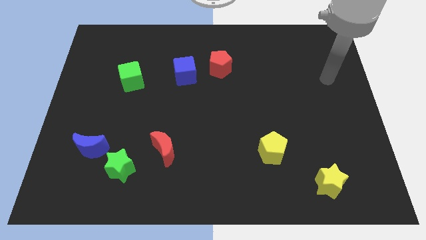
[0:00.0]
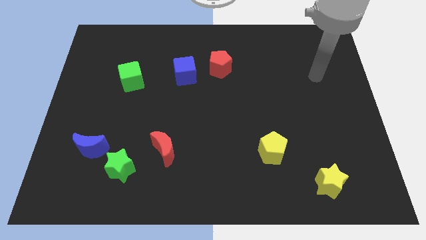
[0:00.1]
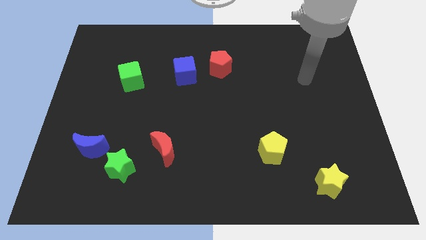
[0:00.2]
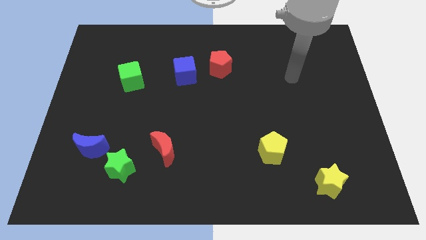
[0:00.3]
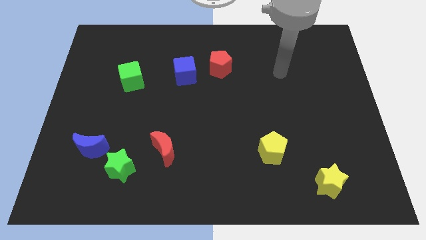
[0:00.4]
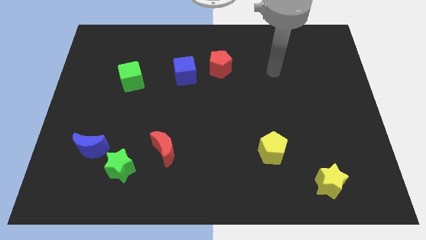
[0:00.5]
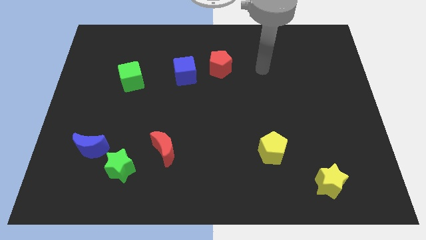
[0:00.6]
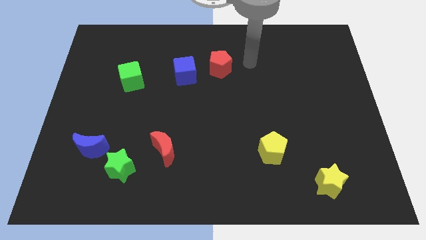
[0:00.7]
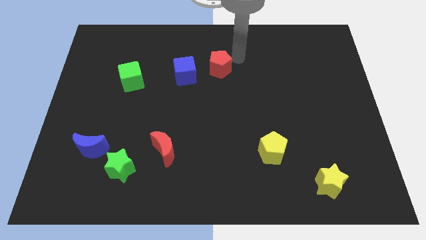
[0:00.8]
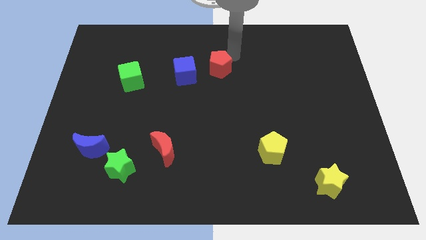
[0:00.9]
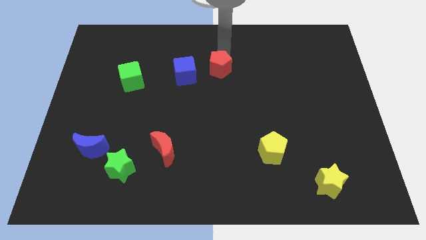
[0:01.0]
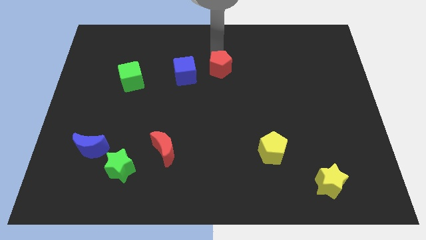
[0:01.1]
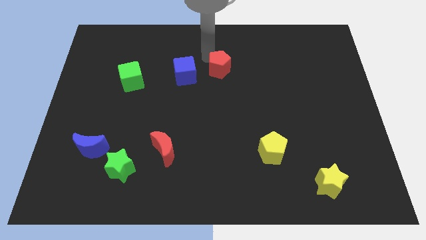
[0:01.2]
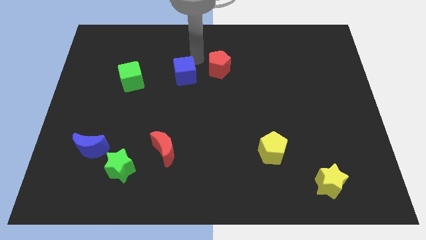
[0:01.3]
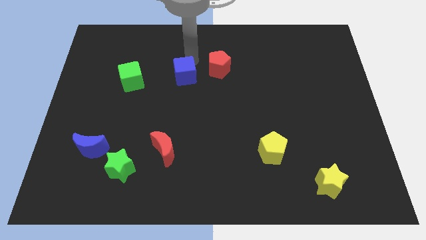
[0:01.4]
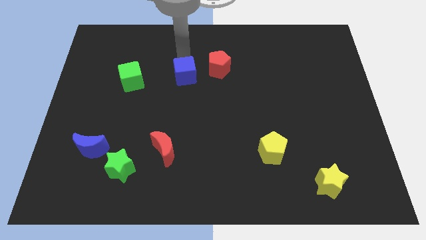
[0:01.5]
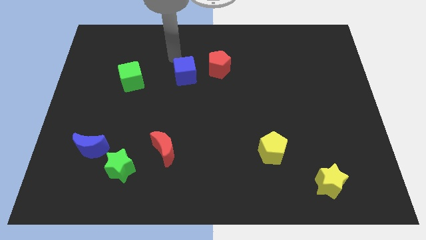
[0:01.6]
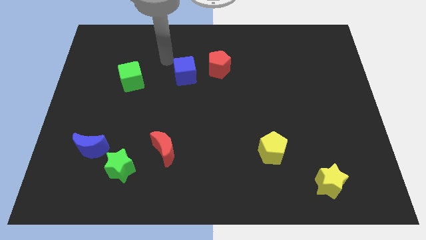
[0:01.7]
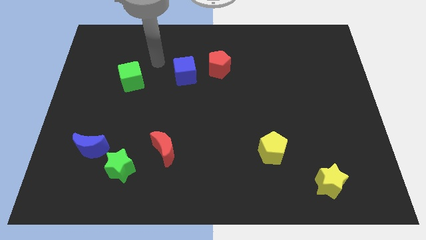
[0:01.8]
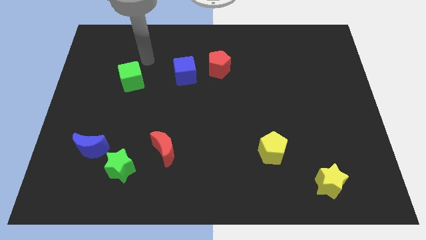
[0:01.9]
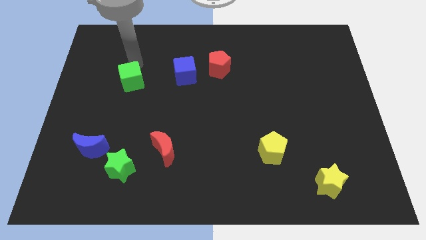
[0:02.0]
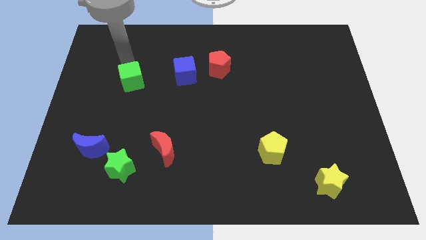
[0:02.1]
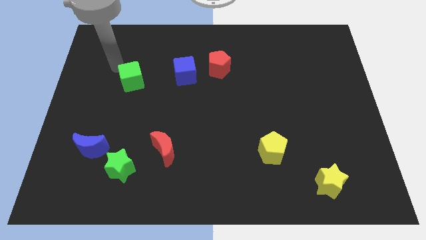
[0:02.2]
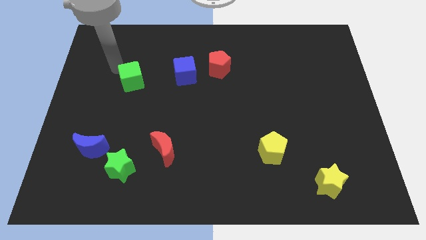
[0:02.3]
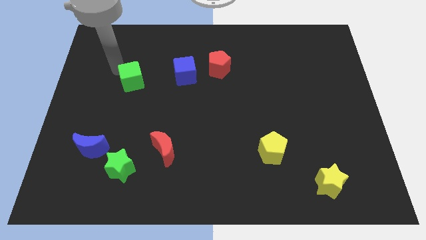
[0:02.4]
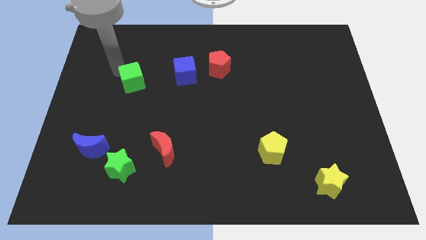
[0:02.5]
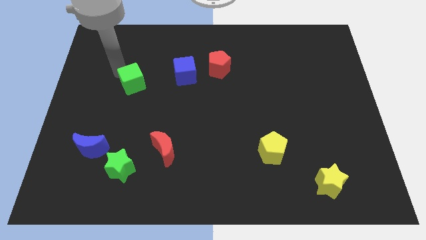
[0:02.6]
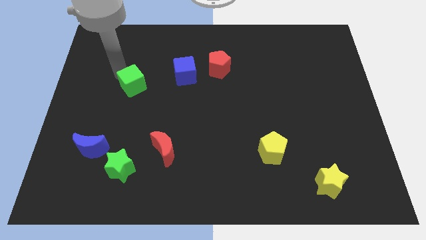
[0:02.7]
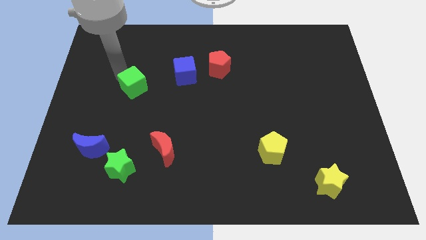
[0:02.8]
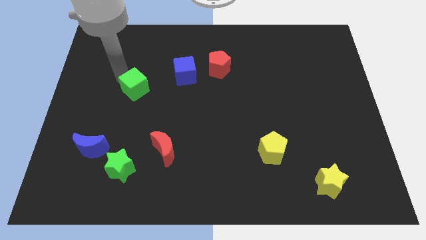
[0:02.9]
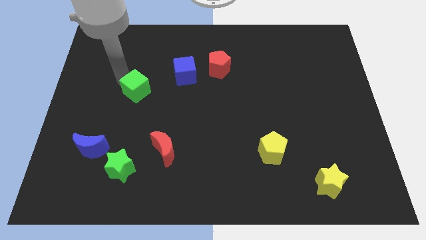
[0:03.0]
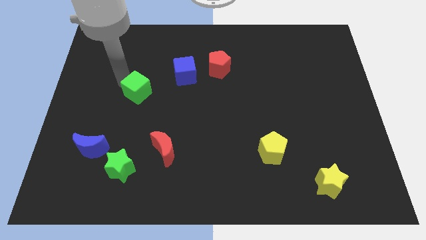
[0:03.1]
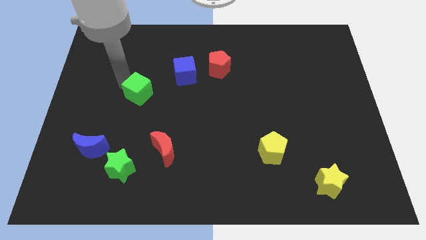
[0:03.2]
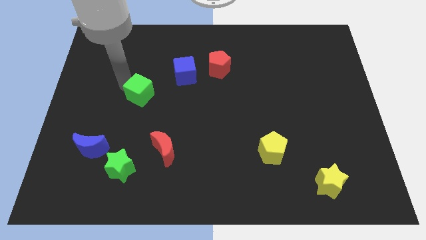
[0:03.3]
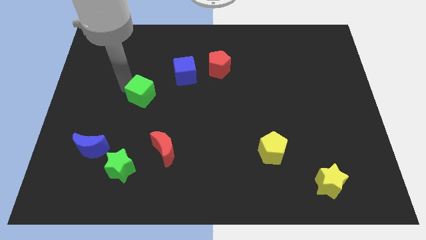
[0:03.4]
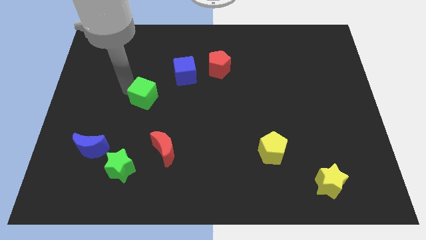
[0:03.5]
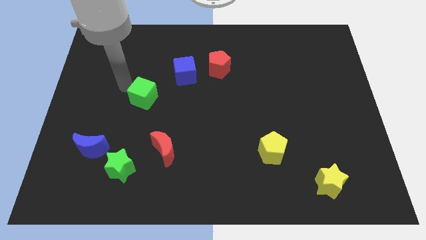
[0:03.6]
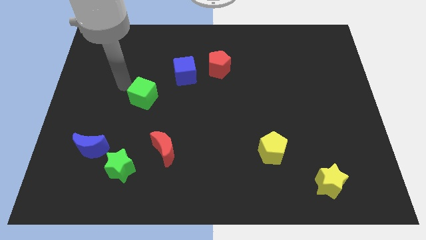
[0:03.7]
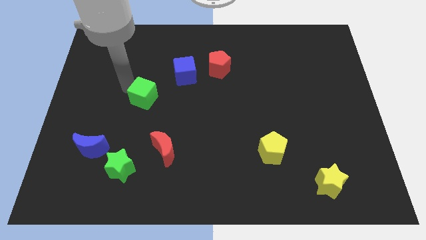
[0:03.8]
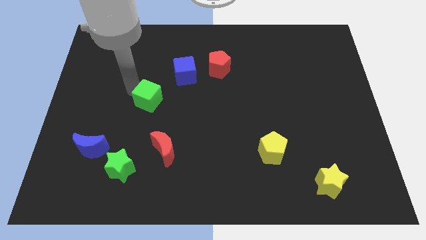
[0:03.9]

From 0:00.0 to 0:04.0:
push the green cube a bit downwards and to the right diagonally

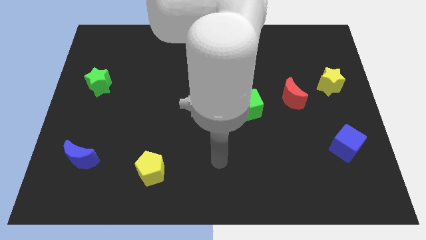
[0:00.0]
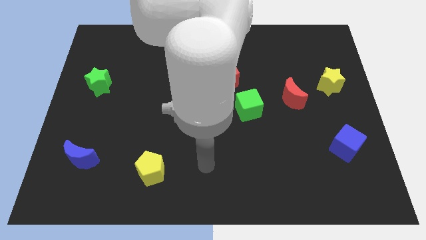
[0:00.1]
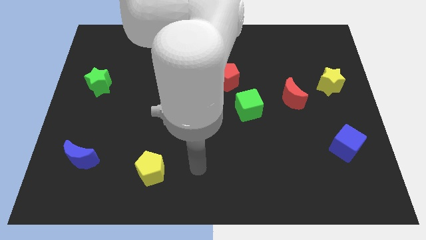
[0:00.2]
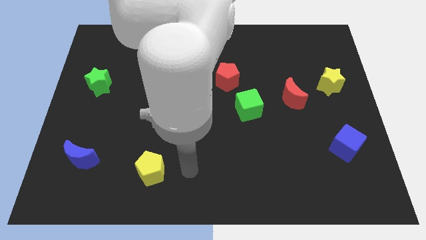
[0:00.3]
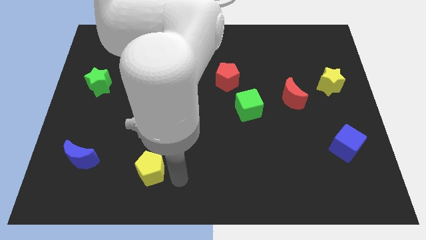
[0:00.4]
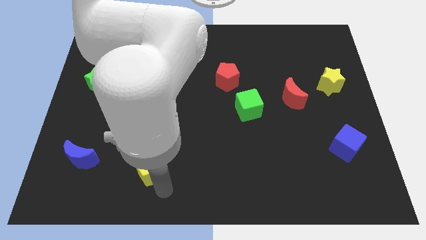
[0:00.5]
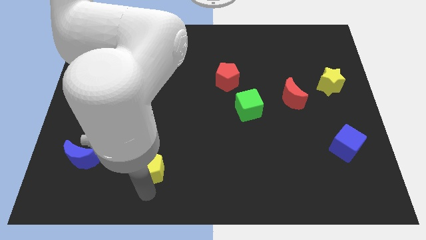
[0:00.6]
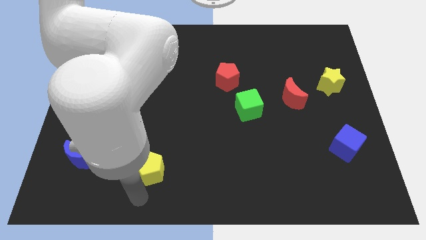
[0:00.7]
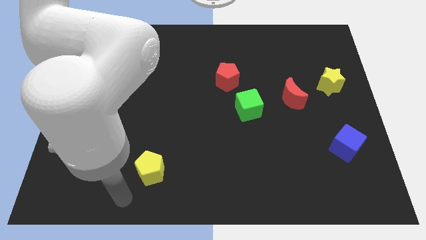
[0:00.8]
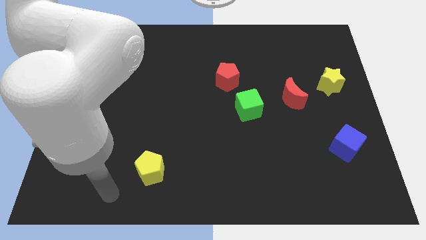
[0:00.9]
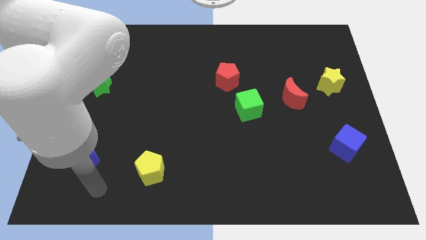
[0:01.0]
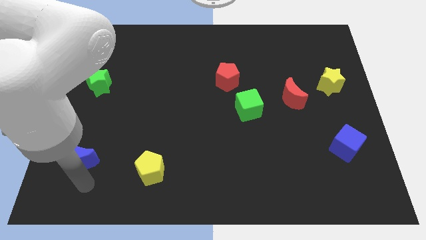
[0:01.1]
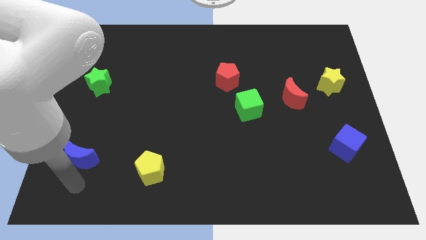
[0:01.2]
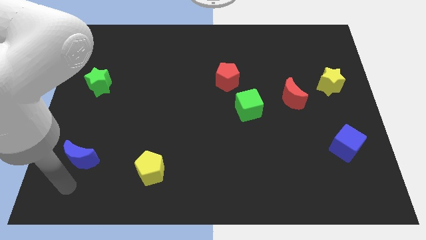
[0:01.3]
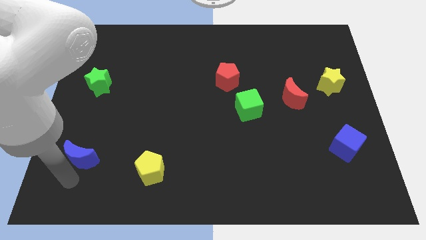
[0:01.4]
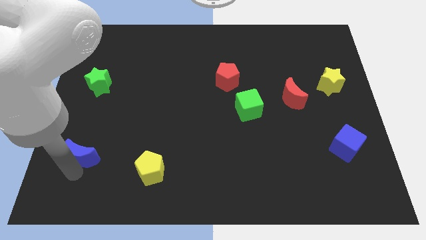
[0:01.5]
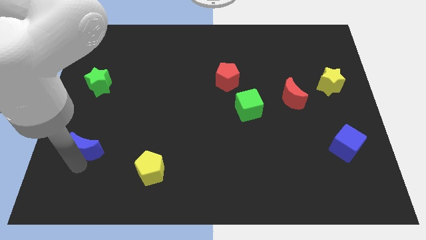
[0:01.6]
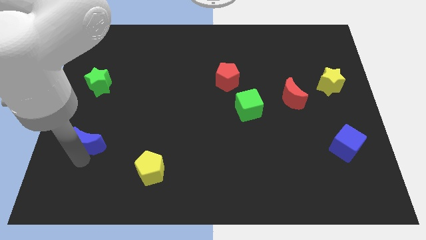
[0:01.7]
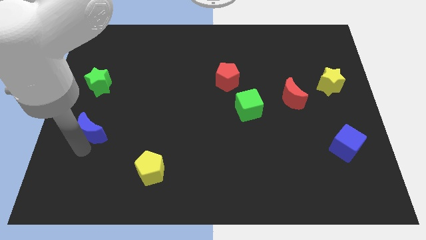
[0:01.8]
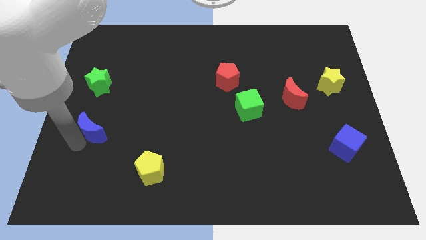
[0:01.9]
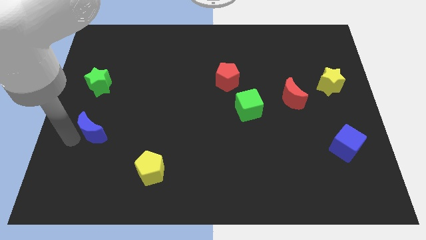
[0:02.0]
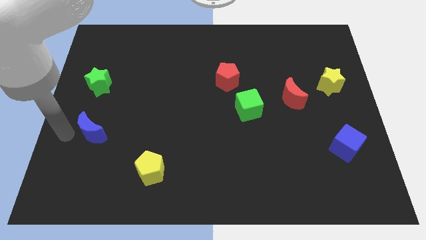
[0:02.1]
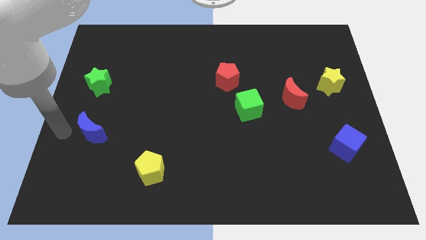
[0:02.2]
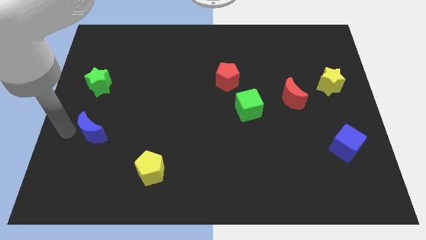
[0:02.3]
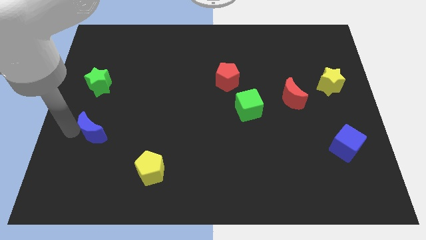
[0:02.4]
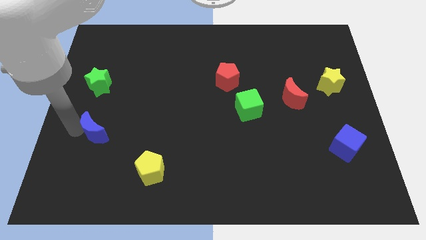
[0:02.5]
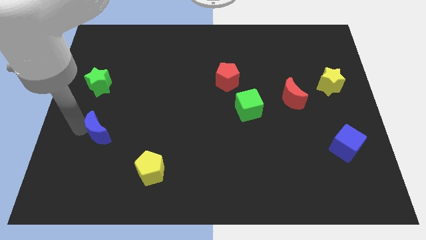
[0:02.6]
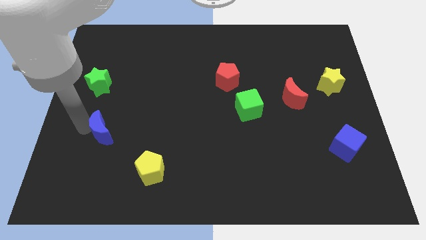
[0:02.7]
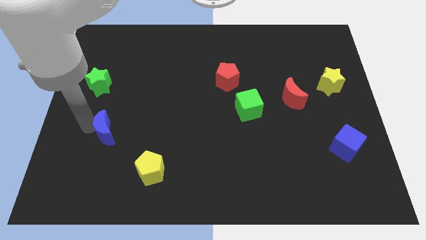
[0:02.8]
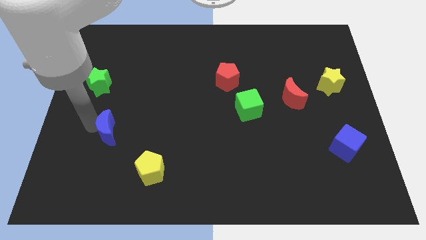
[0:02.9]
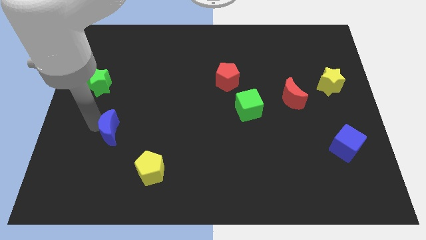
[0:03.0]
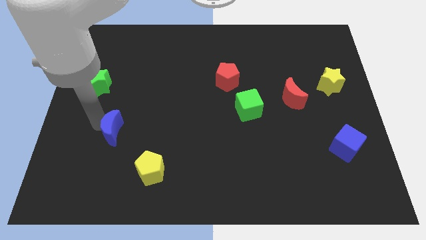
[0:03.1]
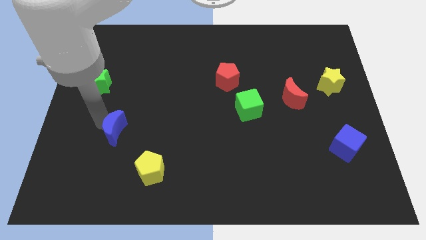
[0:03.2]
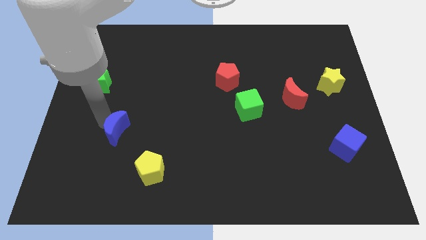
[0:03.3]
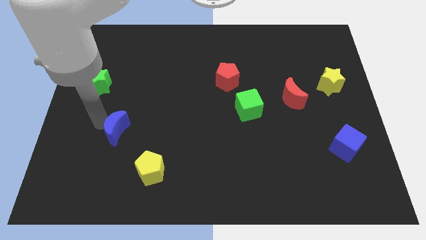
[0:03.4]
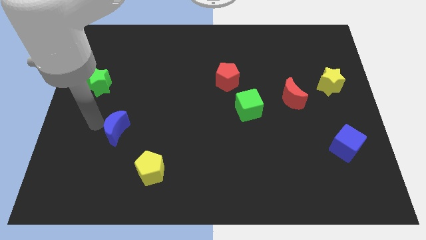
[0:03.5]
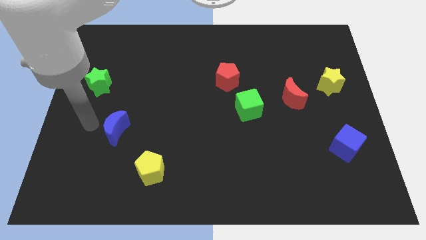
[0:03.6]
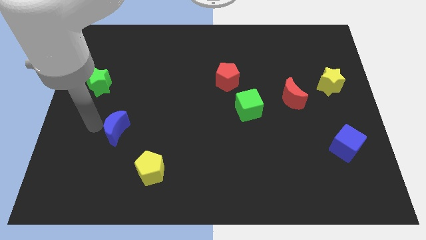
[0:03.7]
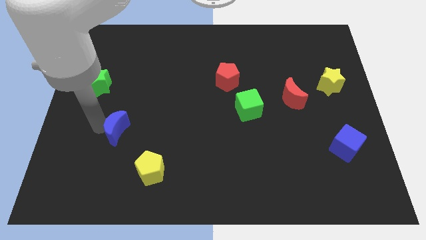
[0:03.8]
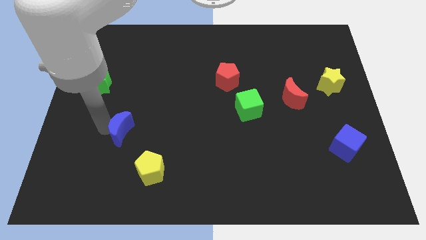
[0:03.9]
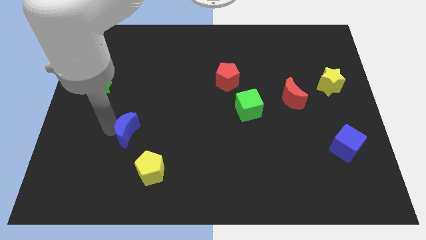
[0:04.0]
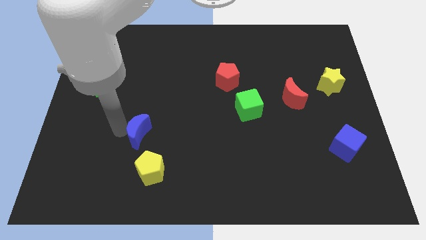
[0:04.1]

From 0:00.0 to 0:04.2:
push the blue moon right slightly
